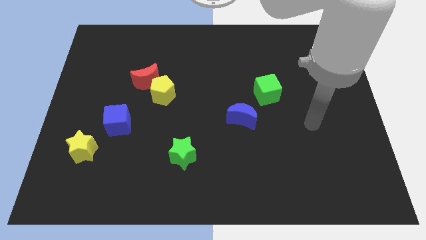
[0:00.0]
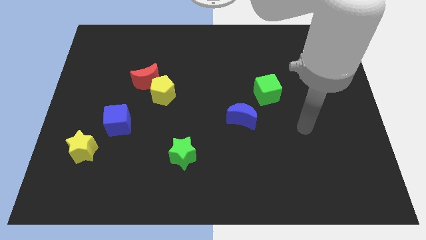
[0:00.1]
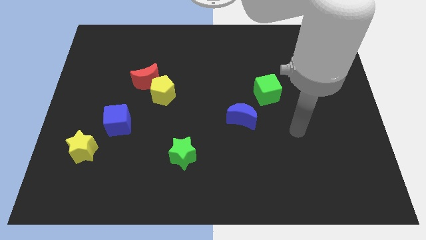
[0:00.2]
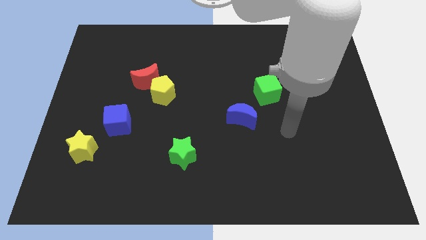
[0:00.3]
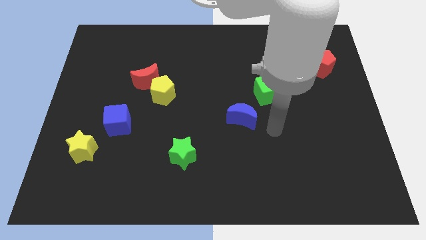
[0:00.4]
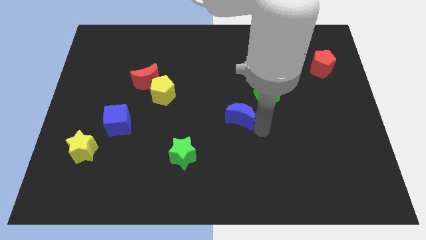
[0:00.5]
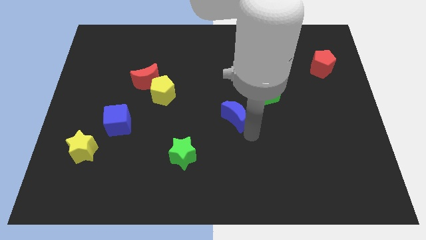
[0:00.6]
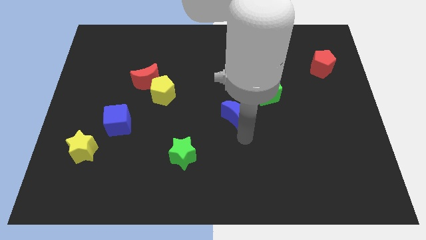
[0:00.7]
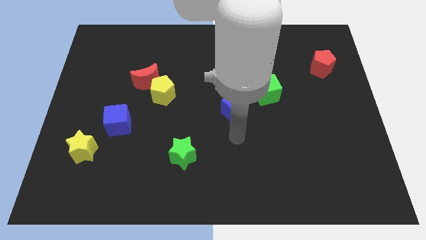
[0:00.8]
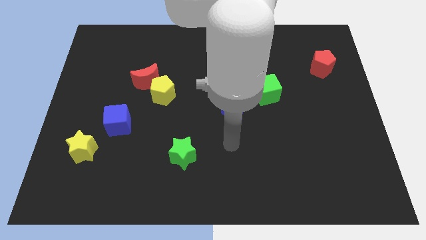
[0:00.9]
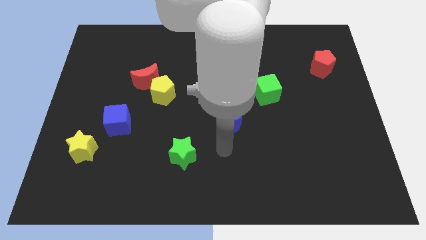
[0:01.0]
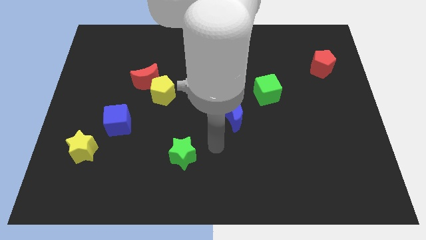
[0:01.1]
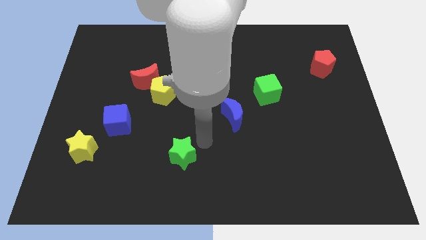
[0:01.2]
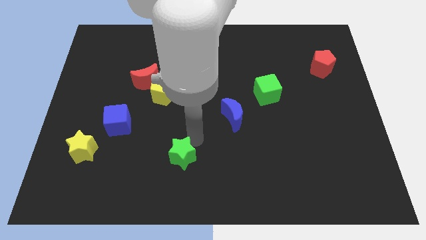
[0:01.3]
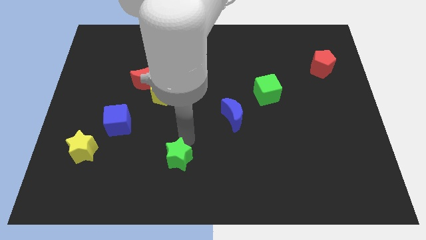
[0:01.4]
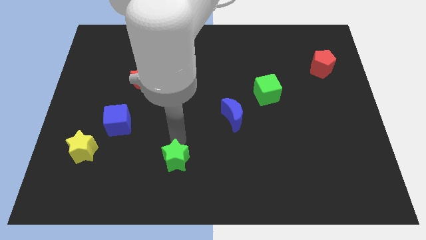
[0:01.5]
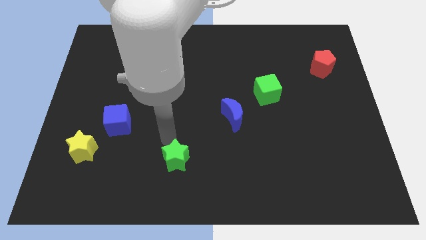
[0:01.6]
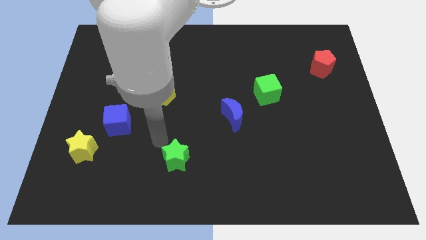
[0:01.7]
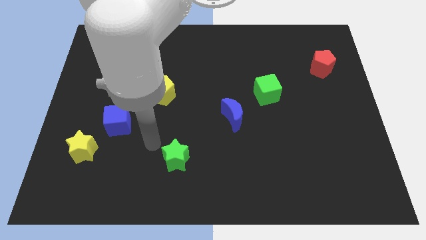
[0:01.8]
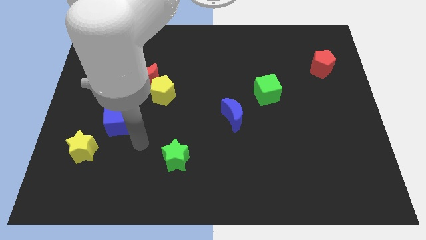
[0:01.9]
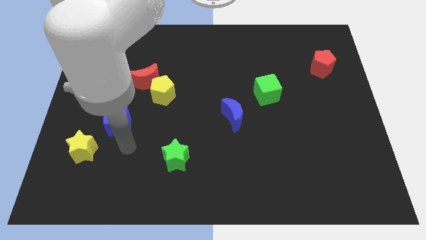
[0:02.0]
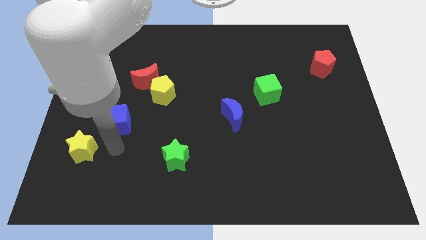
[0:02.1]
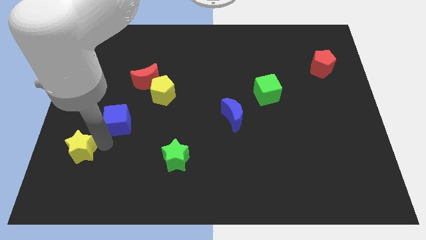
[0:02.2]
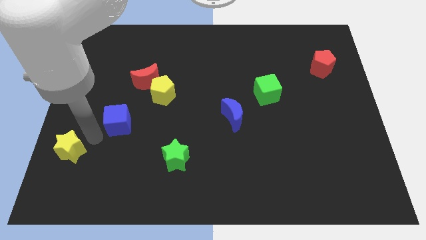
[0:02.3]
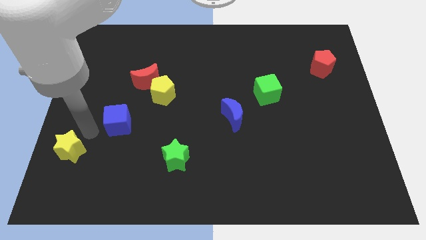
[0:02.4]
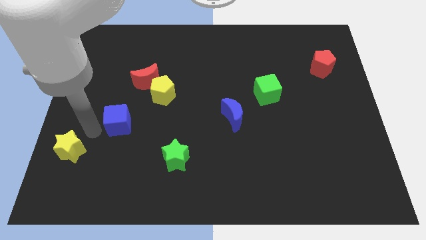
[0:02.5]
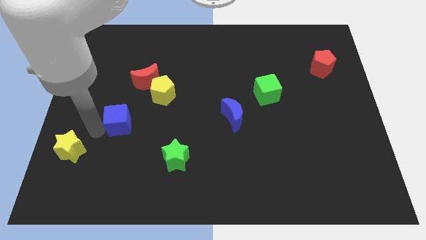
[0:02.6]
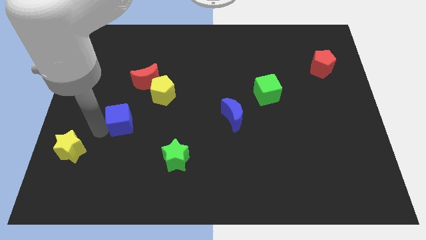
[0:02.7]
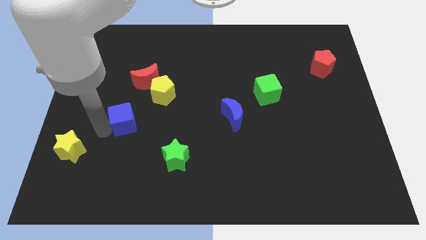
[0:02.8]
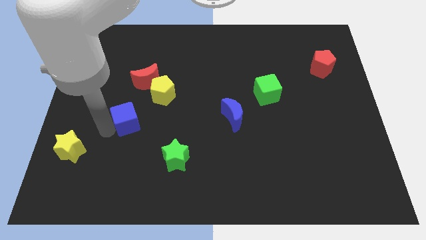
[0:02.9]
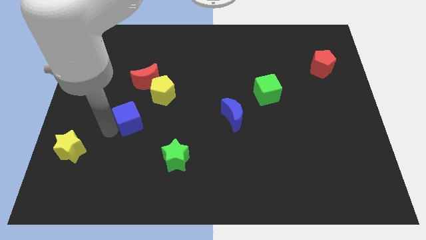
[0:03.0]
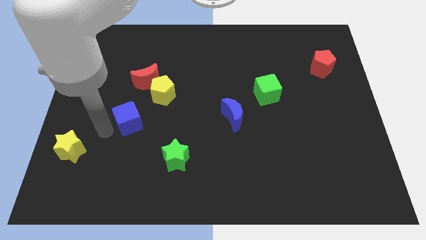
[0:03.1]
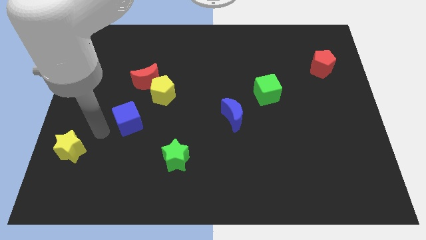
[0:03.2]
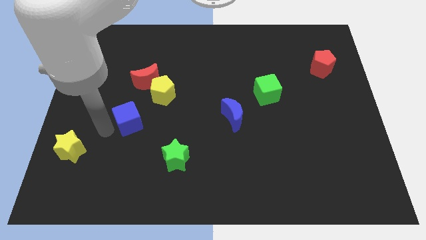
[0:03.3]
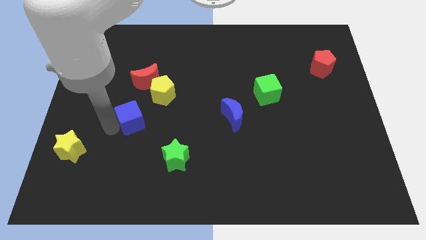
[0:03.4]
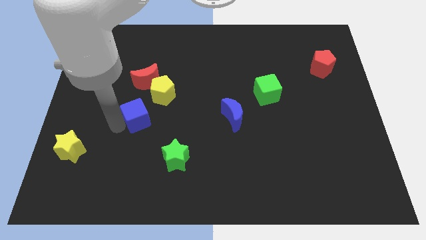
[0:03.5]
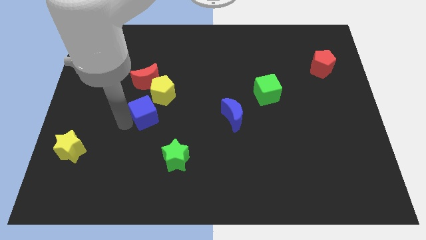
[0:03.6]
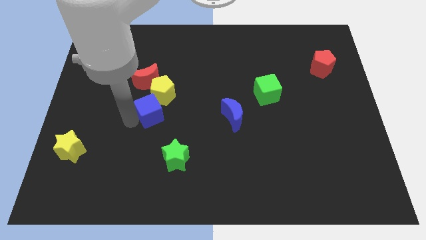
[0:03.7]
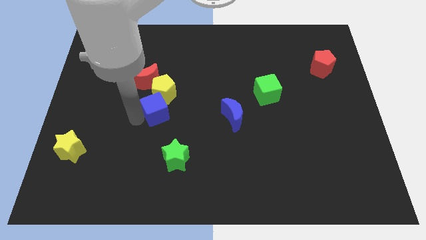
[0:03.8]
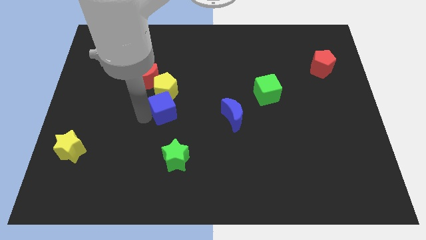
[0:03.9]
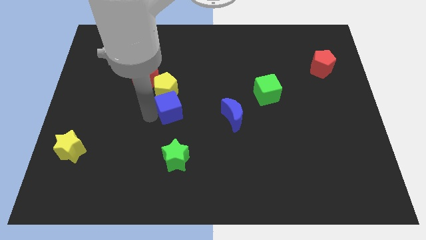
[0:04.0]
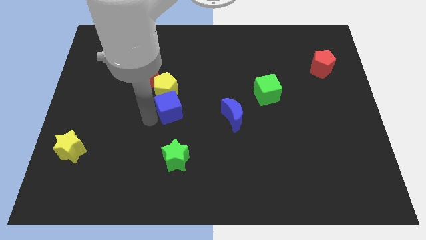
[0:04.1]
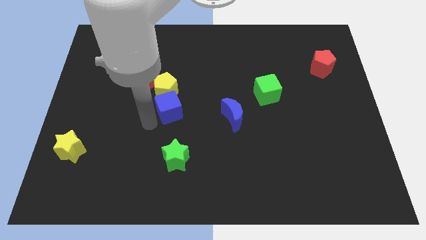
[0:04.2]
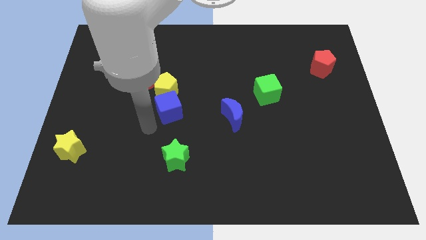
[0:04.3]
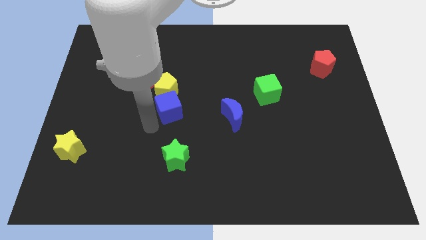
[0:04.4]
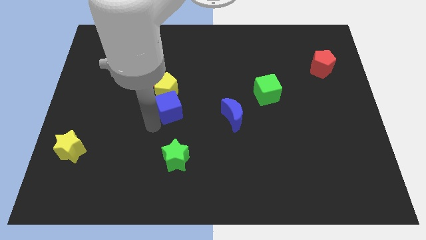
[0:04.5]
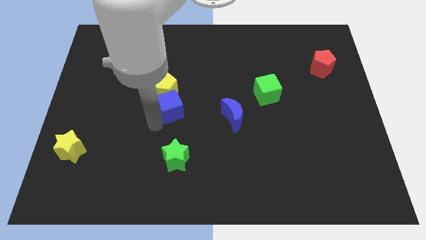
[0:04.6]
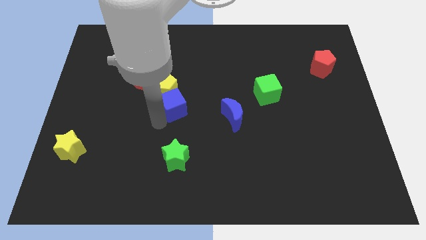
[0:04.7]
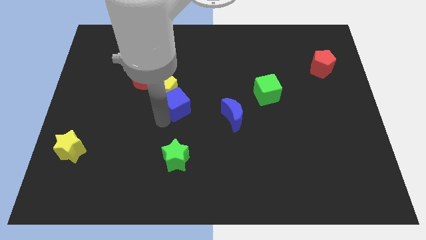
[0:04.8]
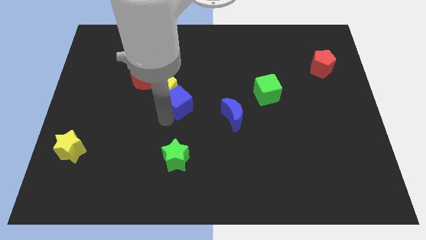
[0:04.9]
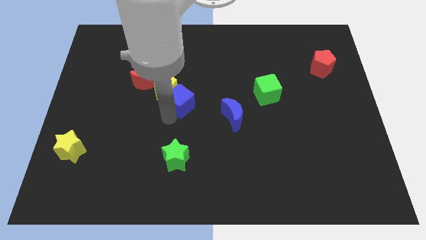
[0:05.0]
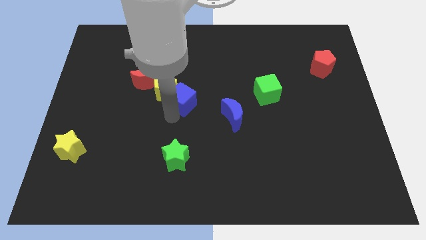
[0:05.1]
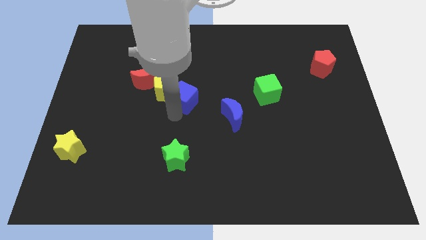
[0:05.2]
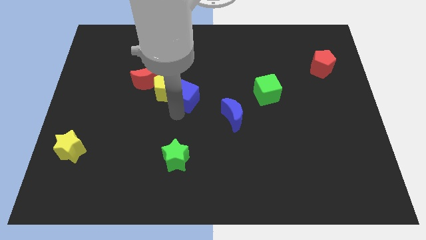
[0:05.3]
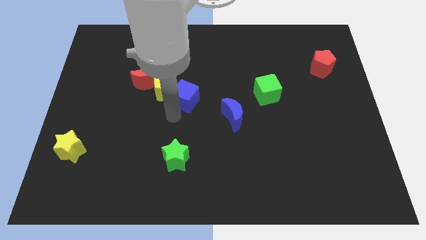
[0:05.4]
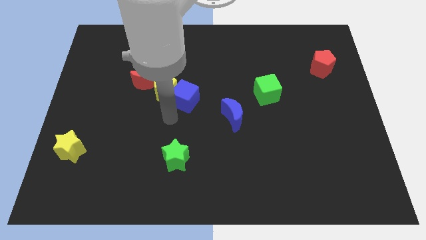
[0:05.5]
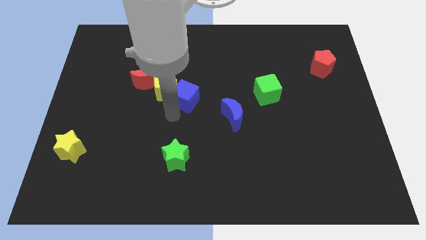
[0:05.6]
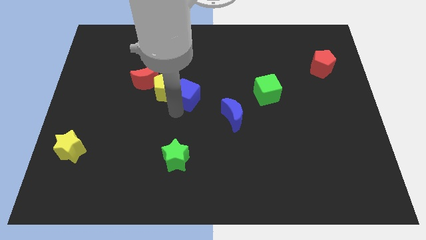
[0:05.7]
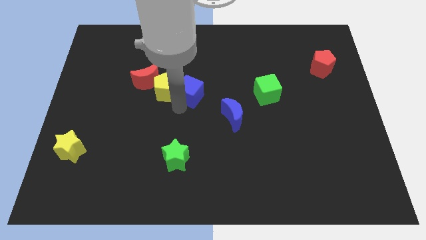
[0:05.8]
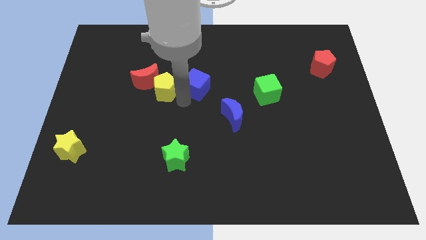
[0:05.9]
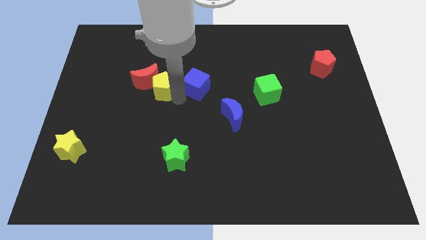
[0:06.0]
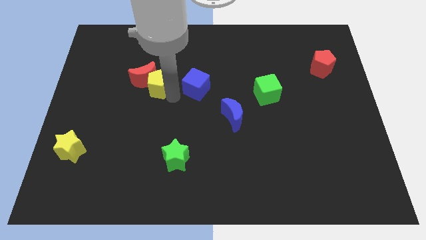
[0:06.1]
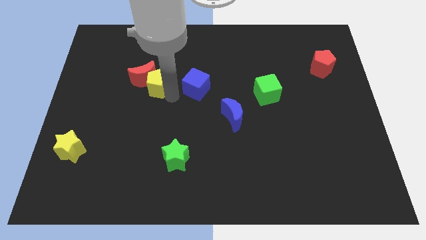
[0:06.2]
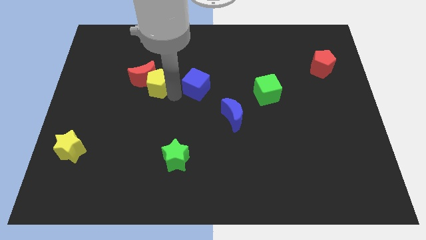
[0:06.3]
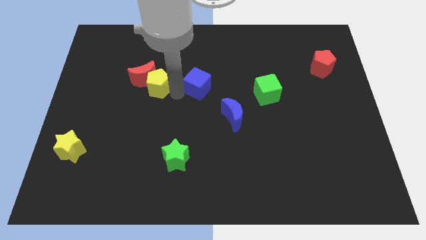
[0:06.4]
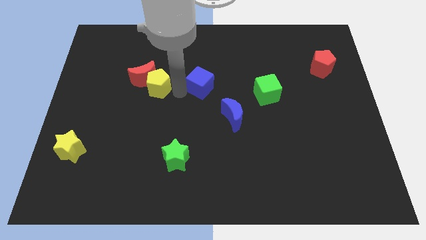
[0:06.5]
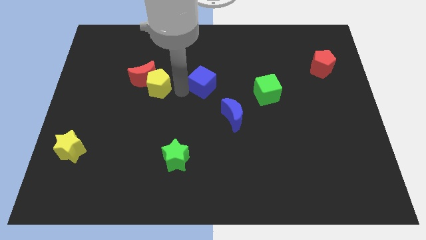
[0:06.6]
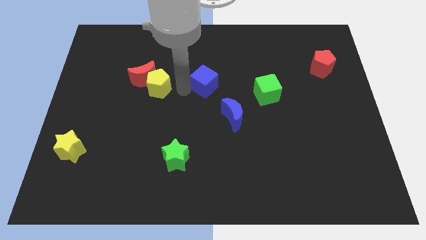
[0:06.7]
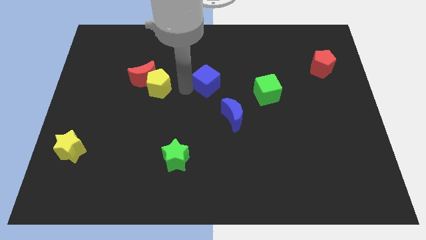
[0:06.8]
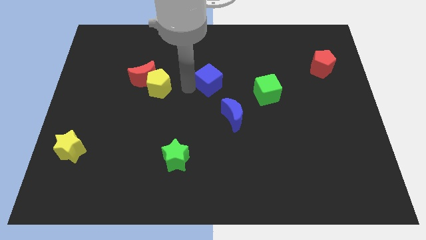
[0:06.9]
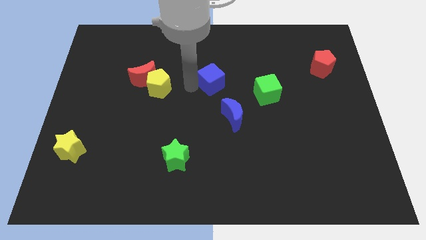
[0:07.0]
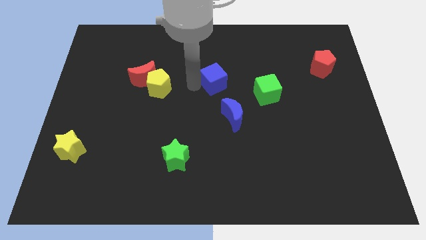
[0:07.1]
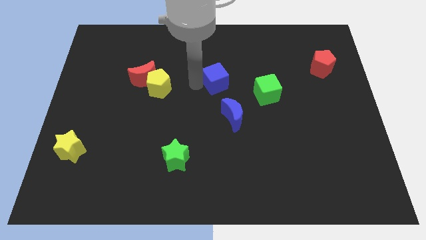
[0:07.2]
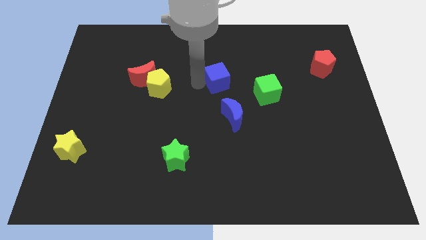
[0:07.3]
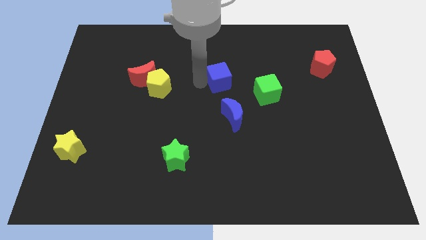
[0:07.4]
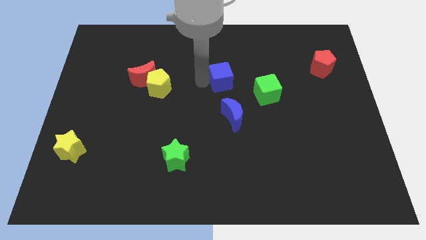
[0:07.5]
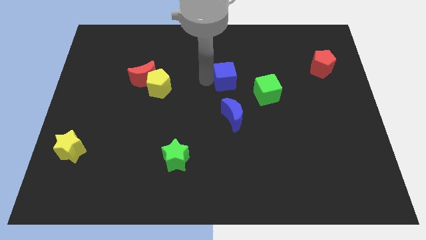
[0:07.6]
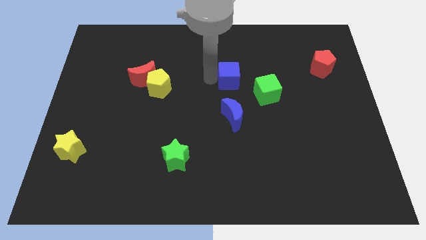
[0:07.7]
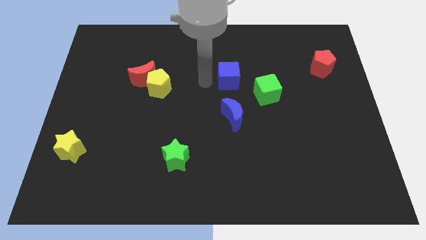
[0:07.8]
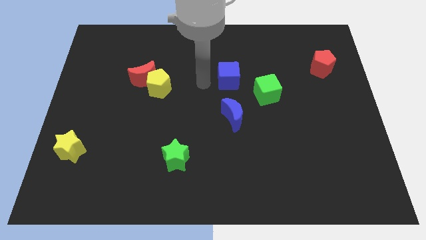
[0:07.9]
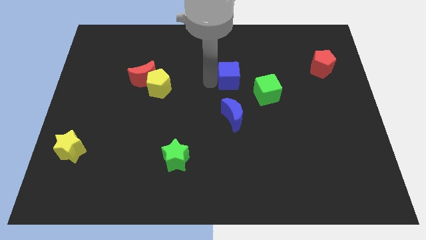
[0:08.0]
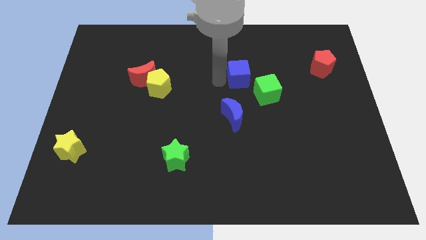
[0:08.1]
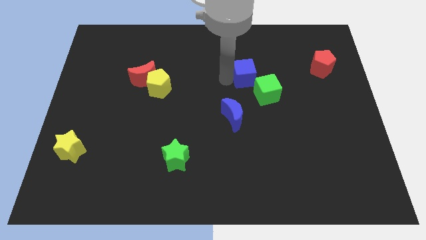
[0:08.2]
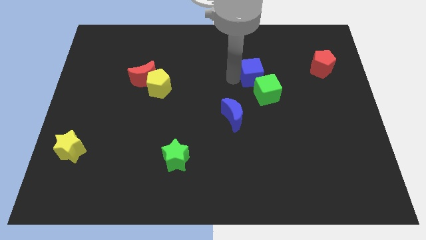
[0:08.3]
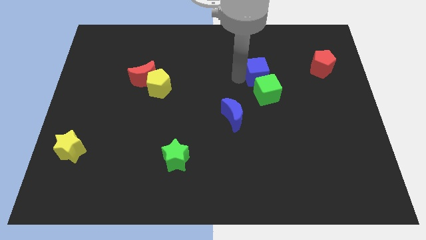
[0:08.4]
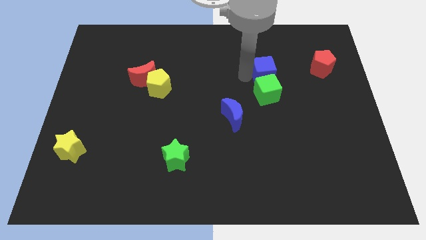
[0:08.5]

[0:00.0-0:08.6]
put the blue cube to the top right of the green cube
